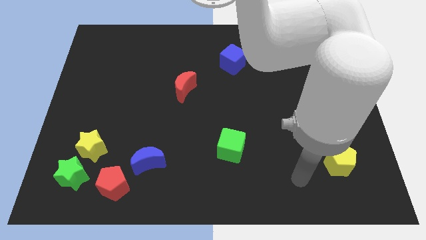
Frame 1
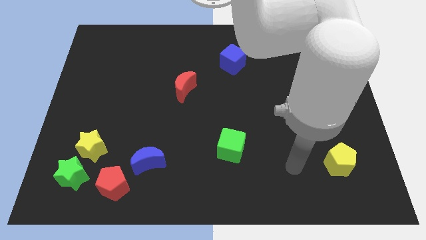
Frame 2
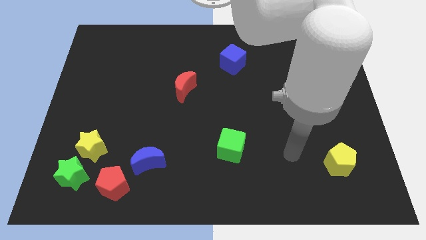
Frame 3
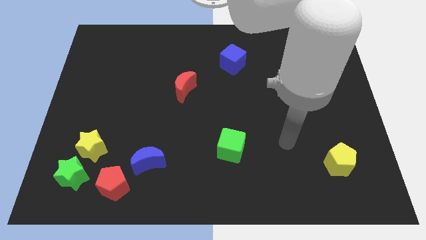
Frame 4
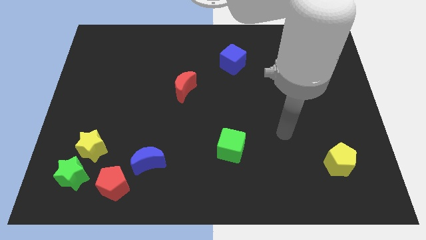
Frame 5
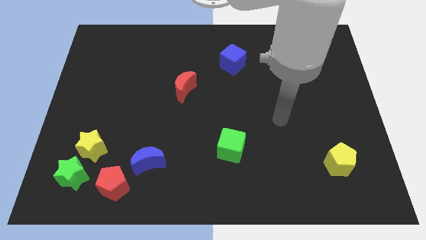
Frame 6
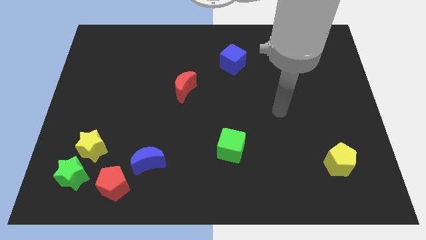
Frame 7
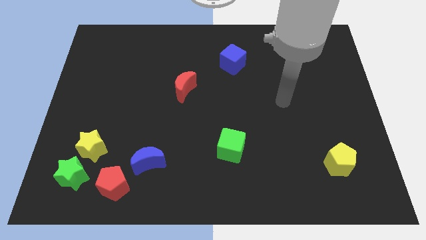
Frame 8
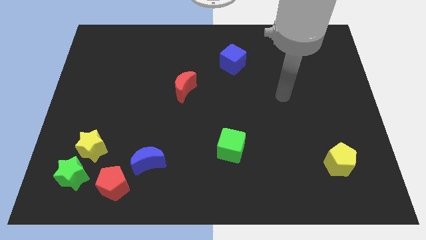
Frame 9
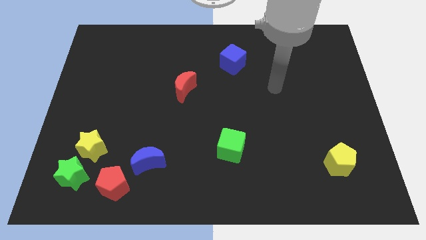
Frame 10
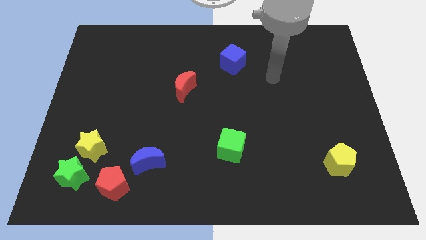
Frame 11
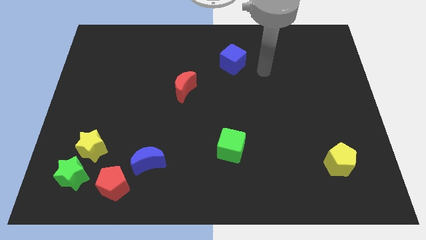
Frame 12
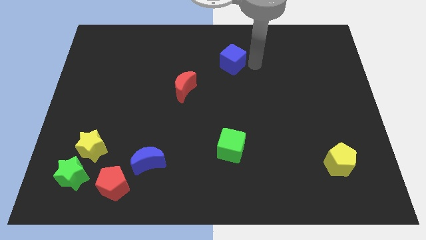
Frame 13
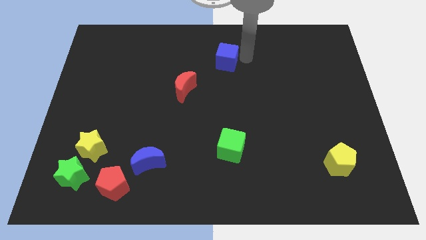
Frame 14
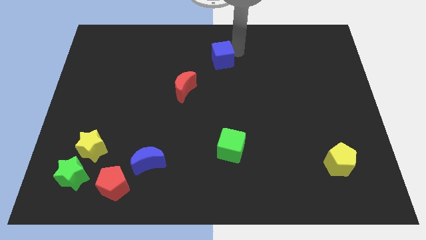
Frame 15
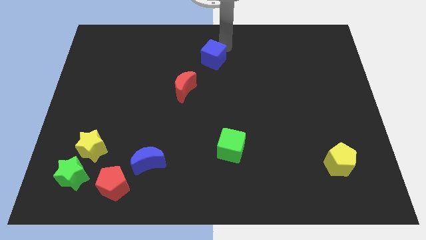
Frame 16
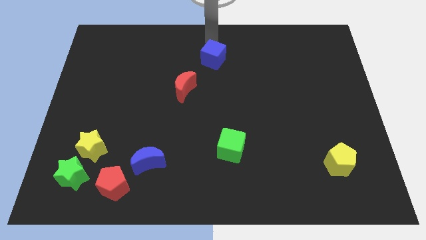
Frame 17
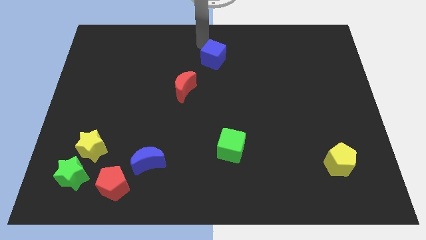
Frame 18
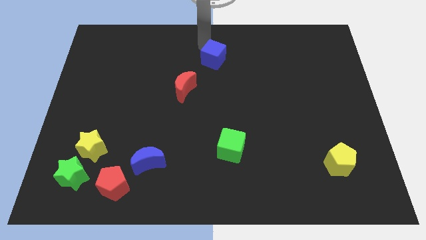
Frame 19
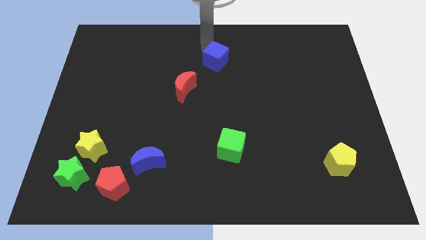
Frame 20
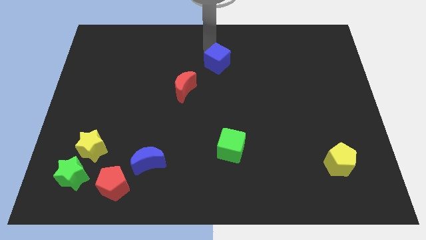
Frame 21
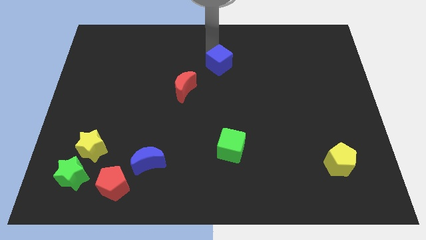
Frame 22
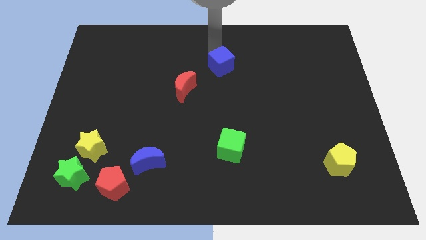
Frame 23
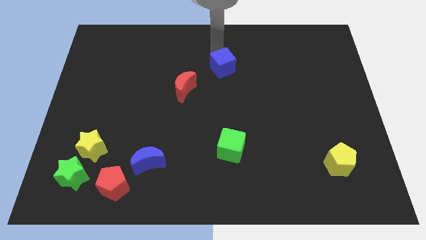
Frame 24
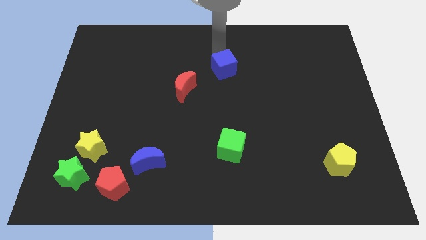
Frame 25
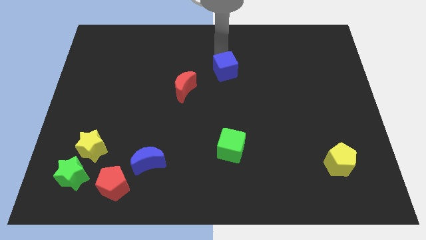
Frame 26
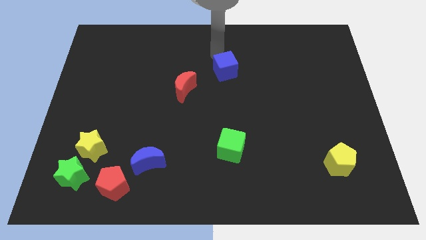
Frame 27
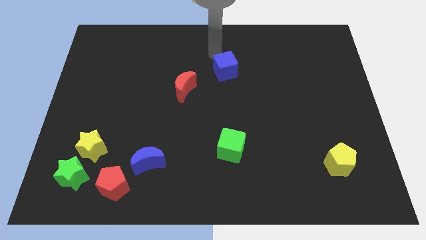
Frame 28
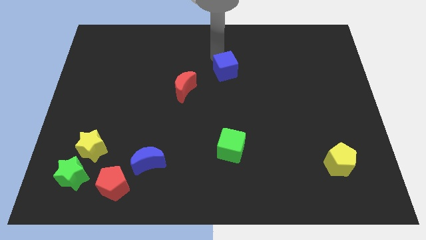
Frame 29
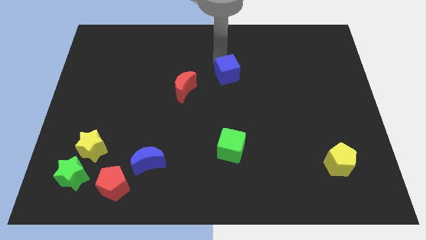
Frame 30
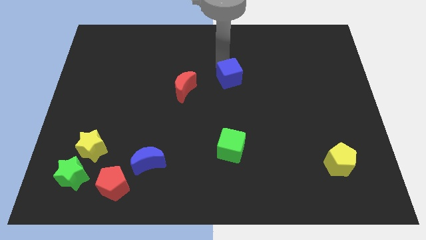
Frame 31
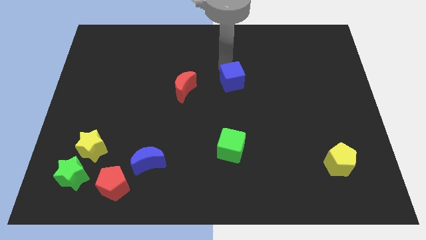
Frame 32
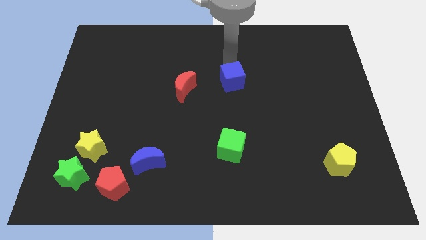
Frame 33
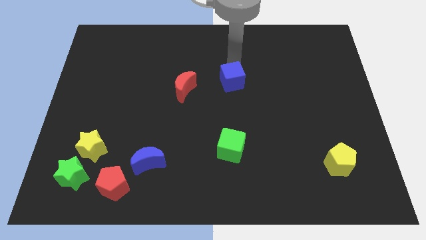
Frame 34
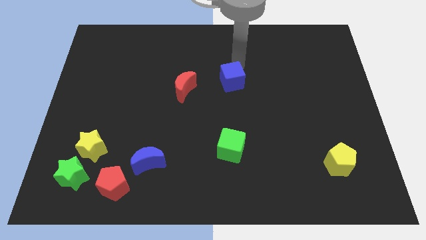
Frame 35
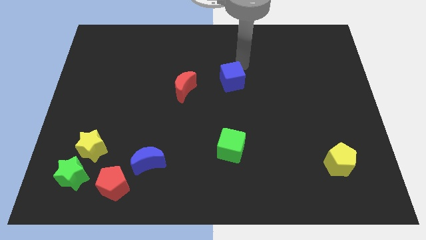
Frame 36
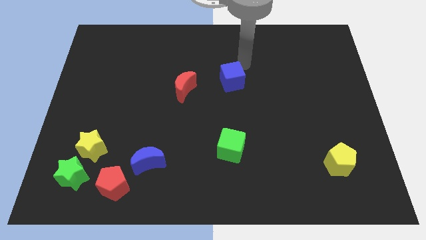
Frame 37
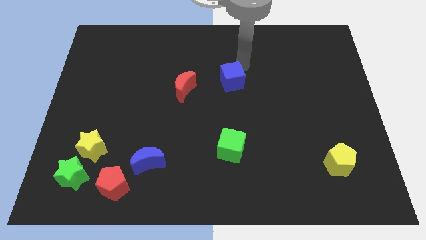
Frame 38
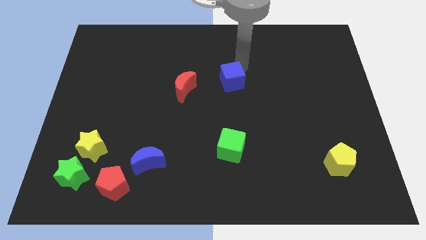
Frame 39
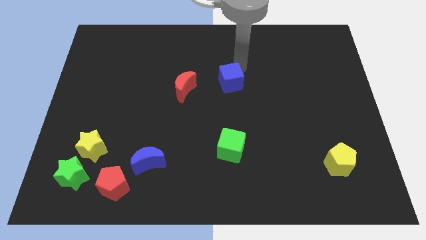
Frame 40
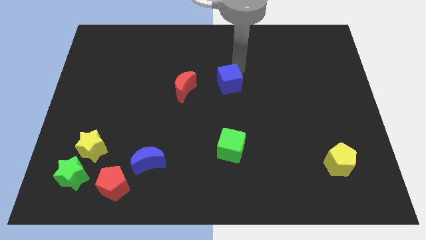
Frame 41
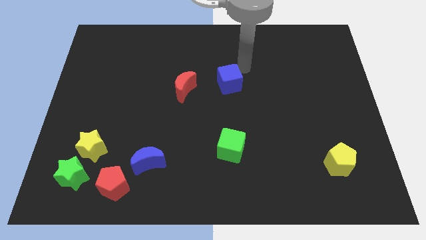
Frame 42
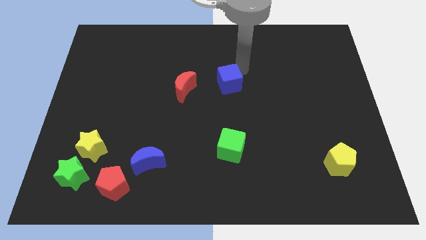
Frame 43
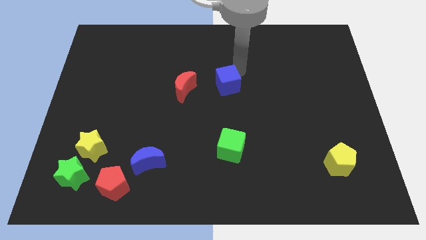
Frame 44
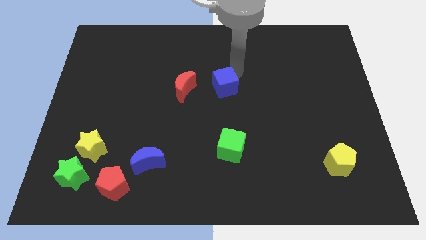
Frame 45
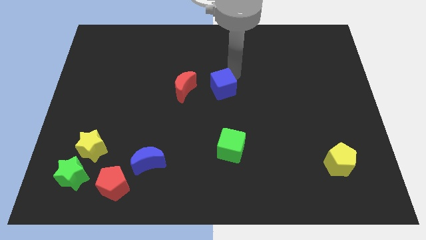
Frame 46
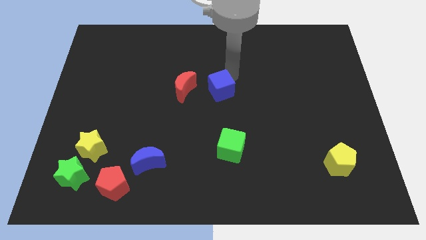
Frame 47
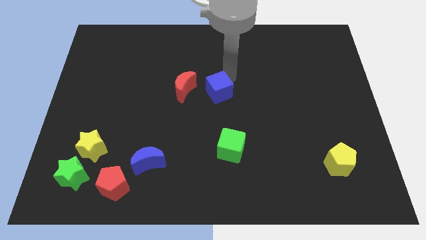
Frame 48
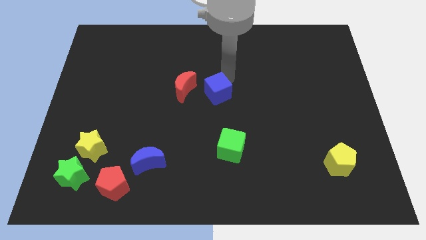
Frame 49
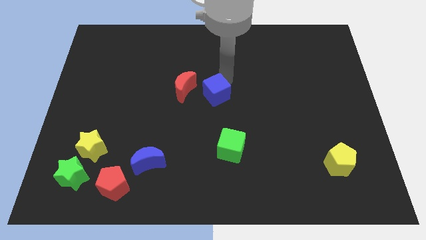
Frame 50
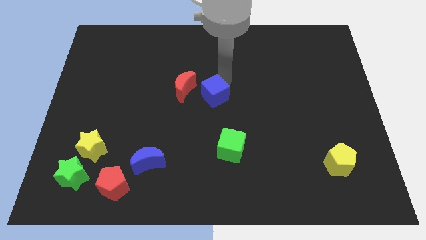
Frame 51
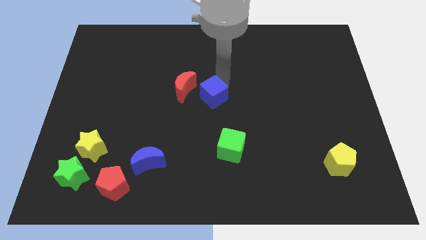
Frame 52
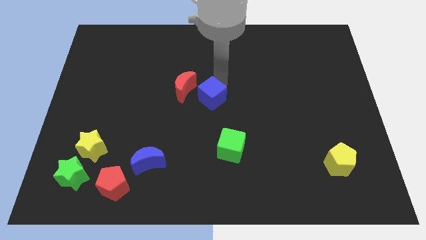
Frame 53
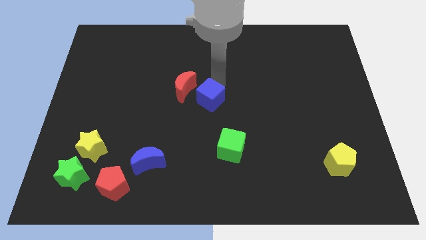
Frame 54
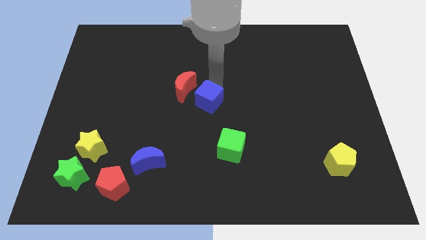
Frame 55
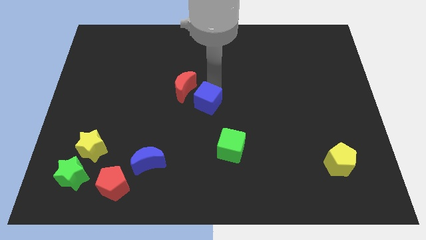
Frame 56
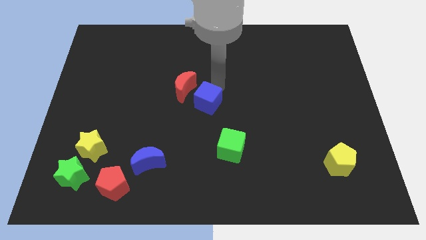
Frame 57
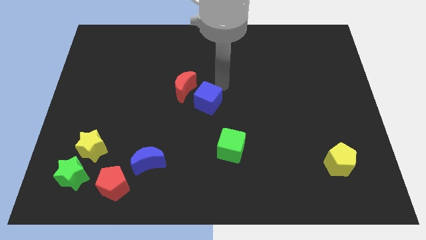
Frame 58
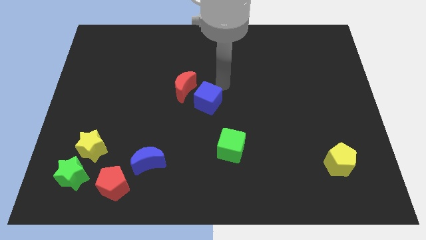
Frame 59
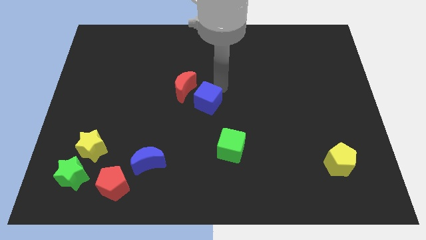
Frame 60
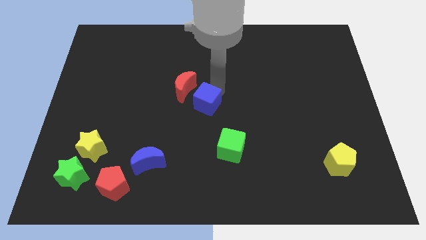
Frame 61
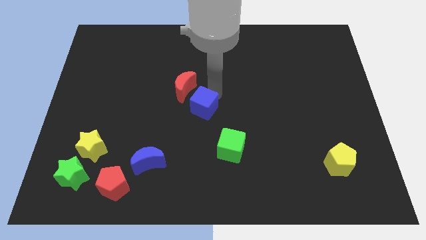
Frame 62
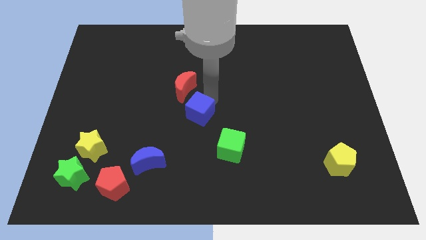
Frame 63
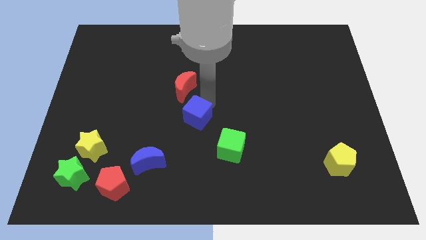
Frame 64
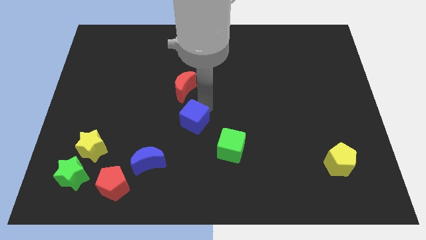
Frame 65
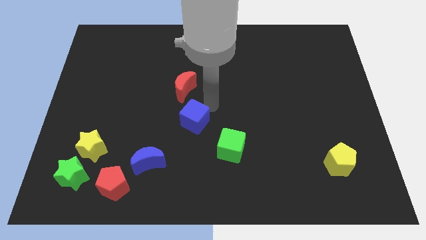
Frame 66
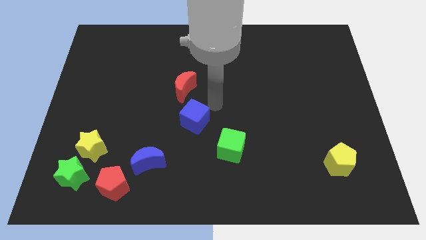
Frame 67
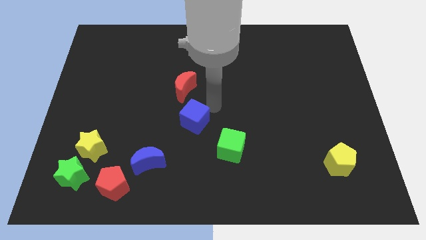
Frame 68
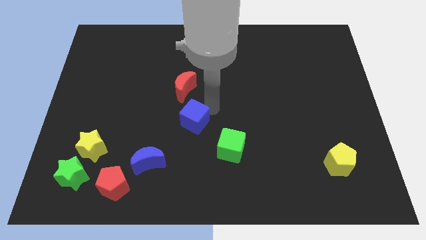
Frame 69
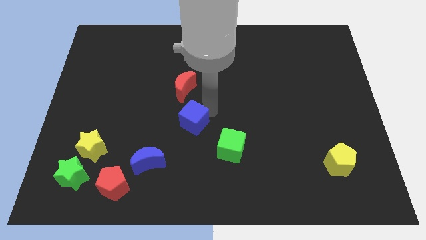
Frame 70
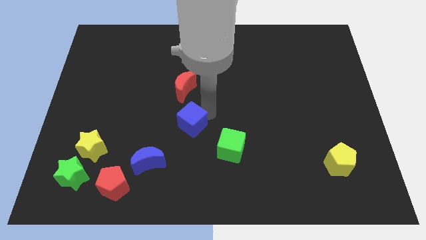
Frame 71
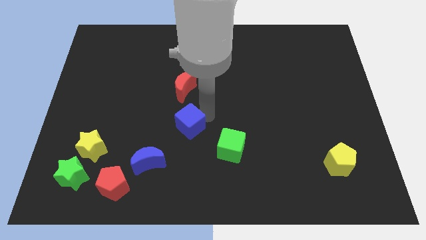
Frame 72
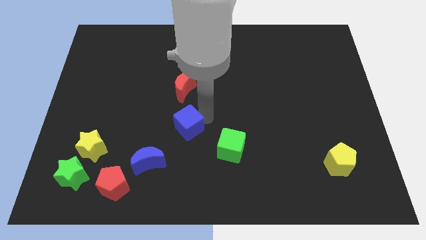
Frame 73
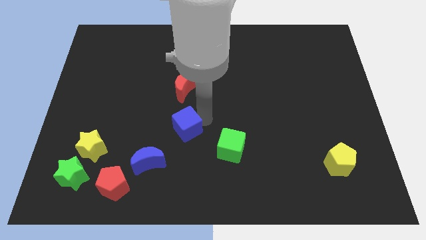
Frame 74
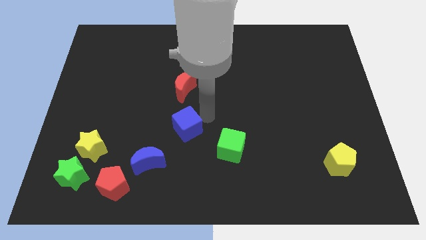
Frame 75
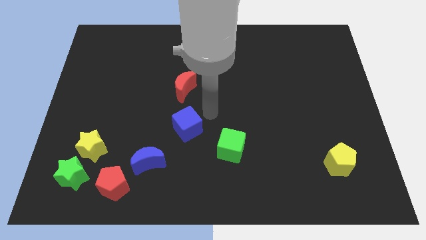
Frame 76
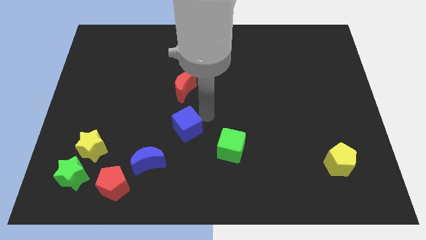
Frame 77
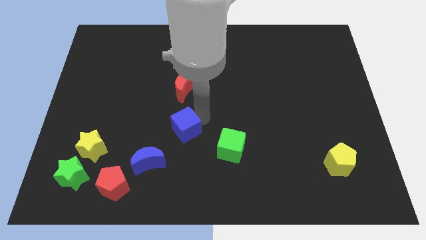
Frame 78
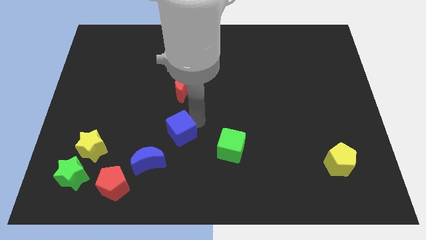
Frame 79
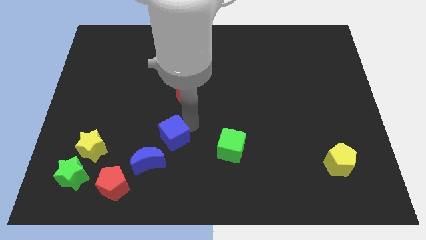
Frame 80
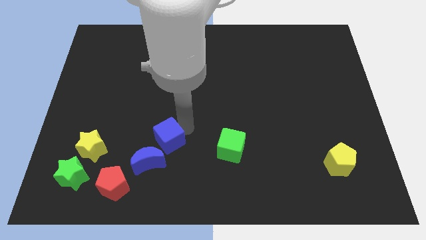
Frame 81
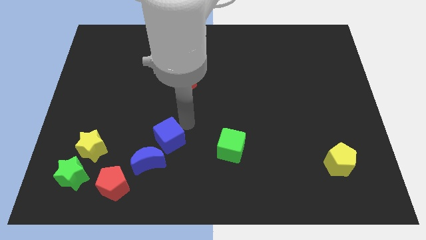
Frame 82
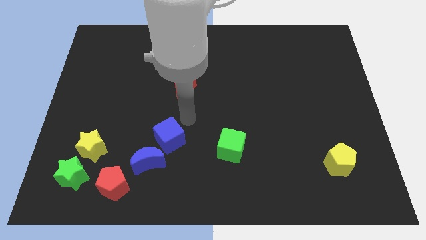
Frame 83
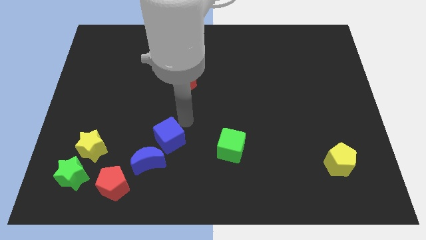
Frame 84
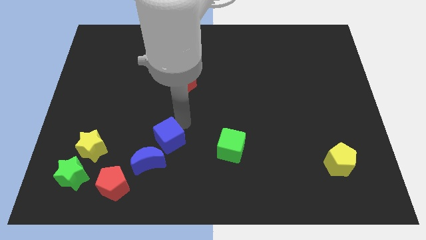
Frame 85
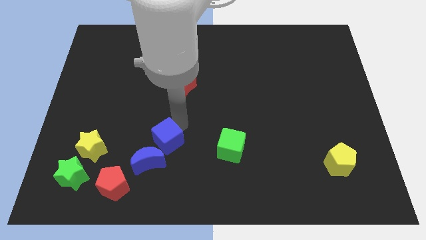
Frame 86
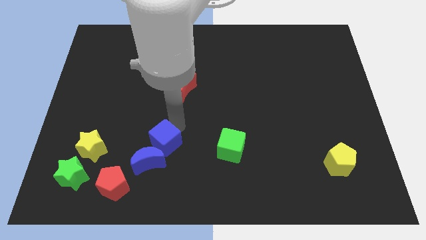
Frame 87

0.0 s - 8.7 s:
push the blue cube towards the blue moon
